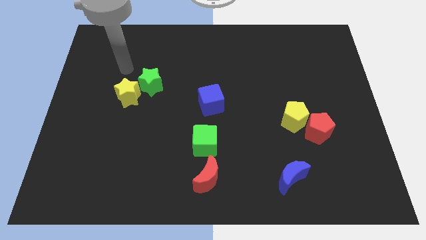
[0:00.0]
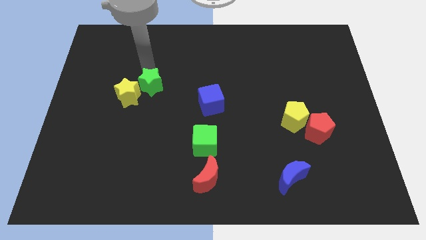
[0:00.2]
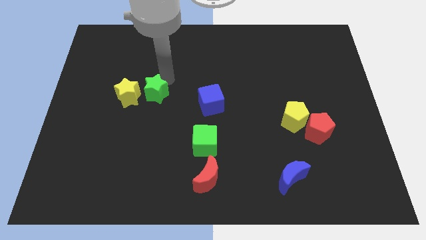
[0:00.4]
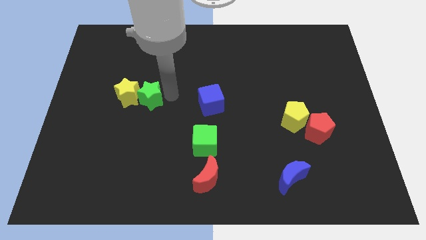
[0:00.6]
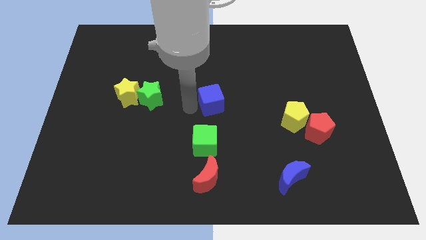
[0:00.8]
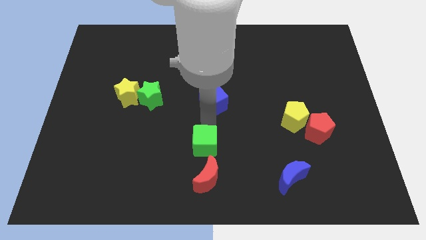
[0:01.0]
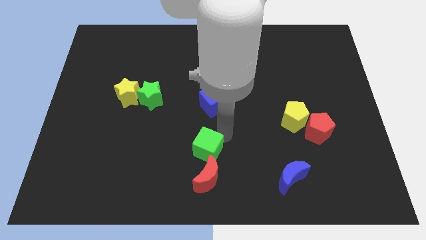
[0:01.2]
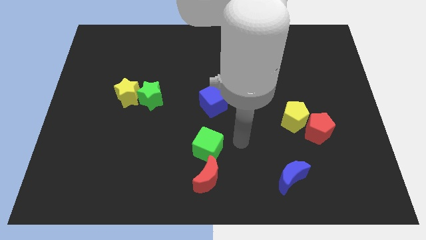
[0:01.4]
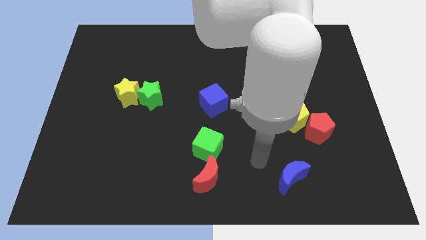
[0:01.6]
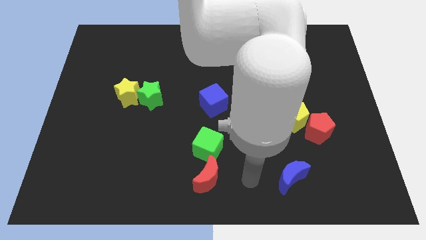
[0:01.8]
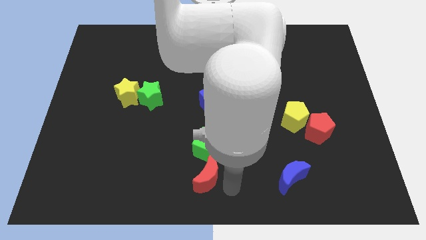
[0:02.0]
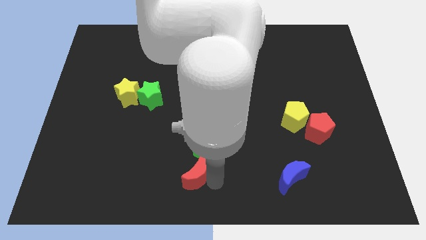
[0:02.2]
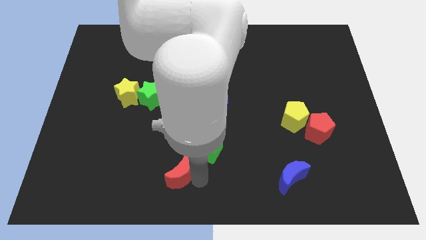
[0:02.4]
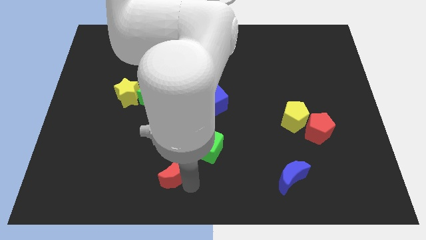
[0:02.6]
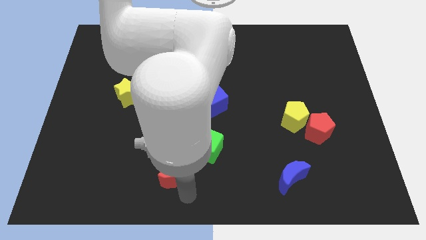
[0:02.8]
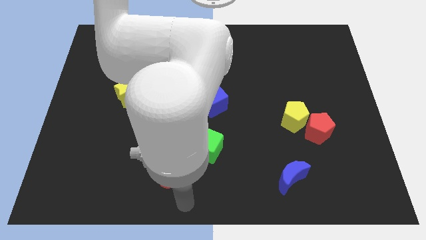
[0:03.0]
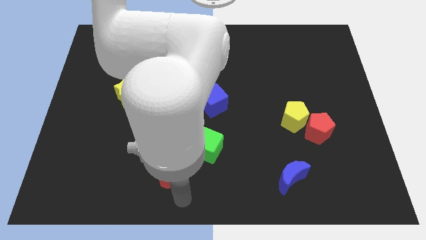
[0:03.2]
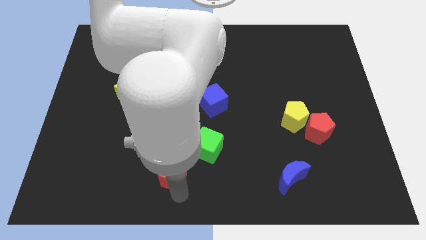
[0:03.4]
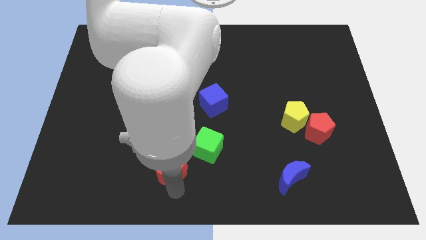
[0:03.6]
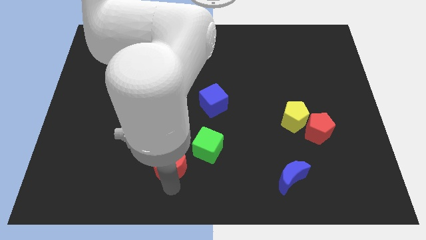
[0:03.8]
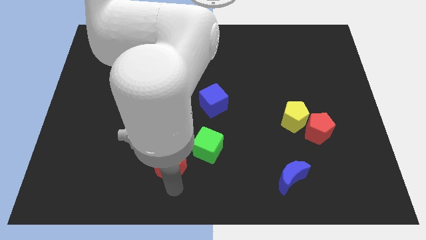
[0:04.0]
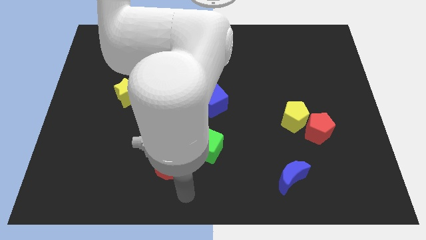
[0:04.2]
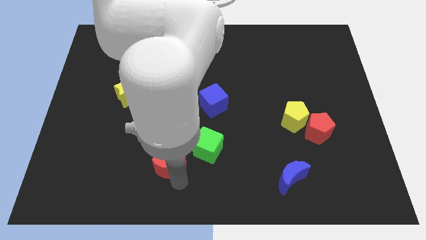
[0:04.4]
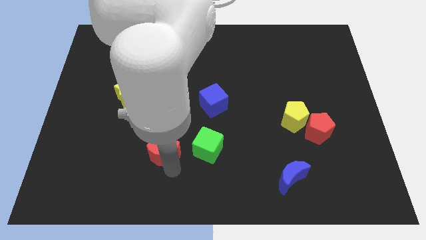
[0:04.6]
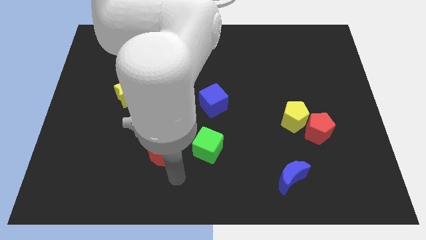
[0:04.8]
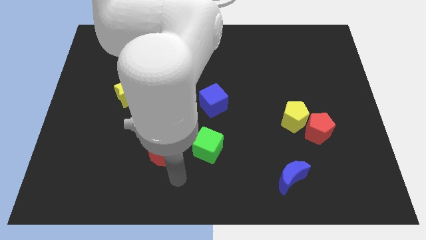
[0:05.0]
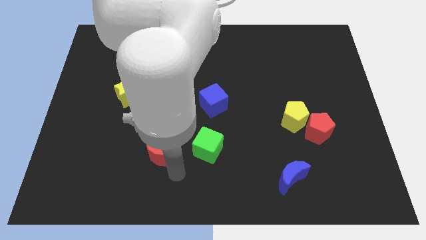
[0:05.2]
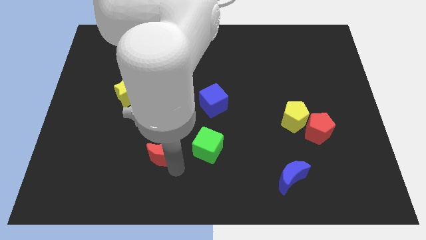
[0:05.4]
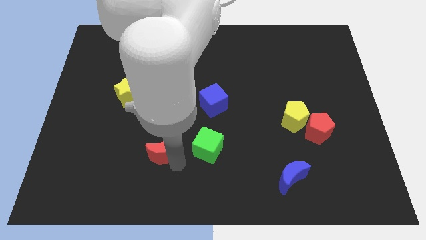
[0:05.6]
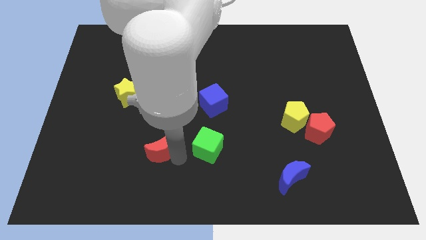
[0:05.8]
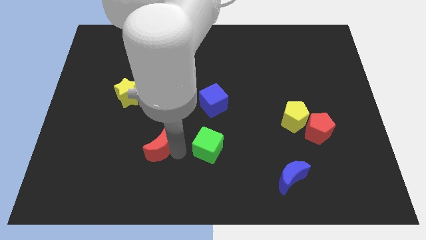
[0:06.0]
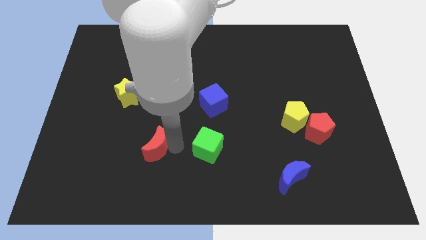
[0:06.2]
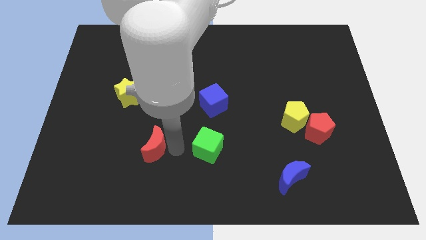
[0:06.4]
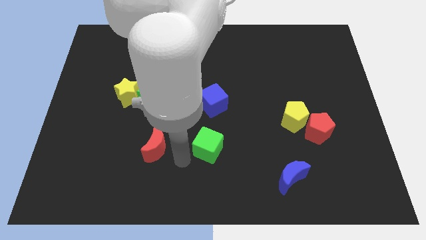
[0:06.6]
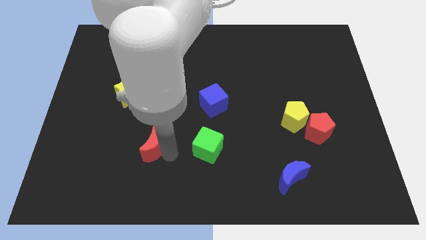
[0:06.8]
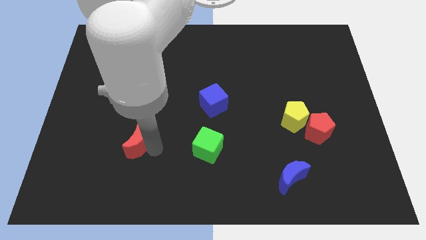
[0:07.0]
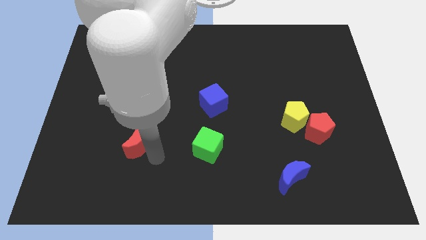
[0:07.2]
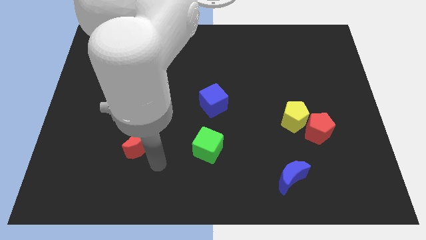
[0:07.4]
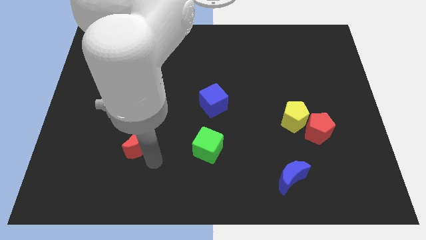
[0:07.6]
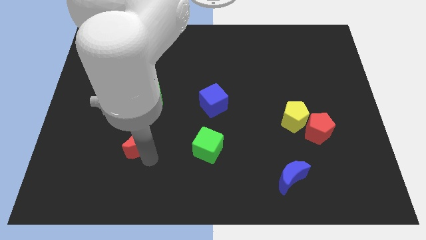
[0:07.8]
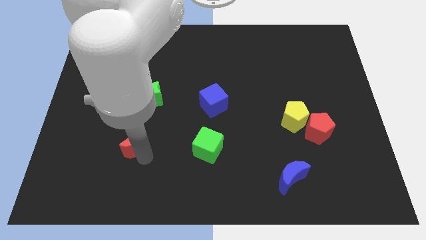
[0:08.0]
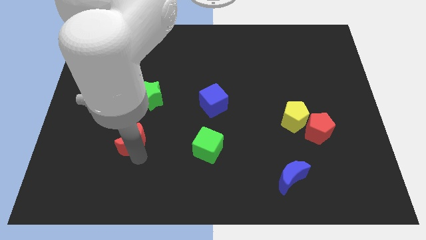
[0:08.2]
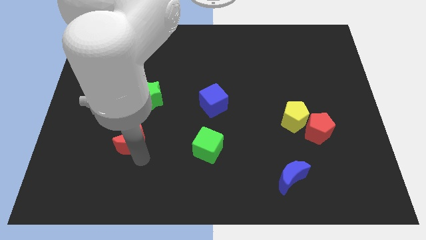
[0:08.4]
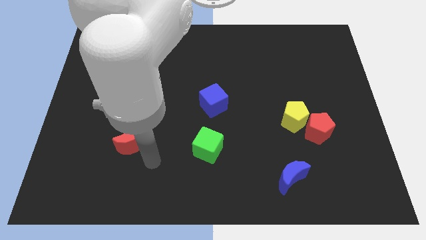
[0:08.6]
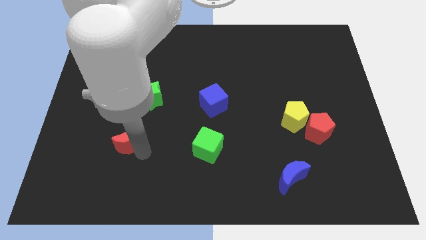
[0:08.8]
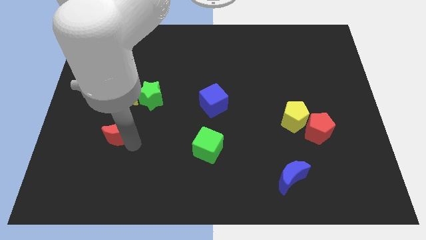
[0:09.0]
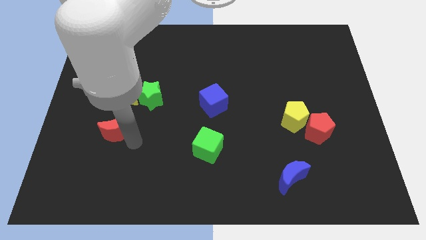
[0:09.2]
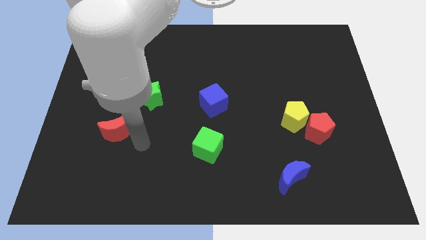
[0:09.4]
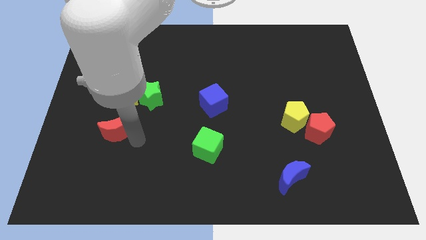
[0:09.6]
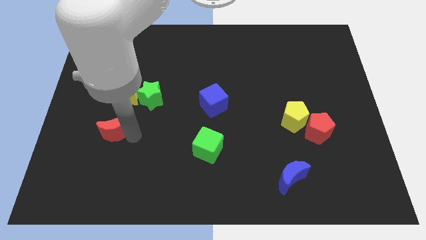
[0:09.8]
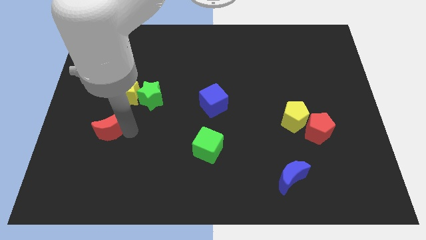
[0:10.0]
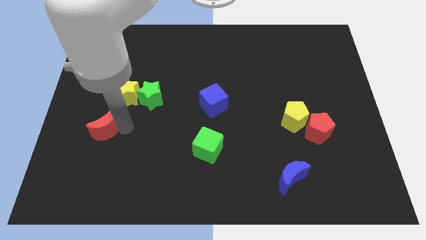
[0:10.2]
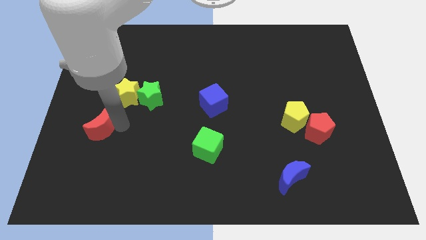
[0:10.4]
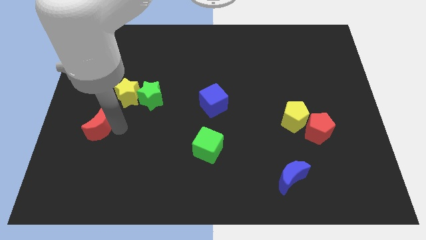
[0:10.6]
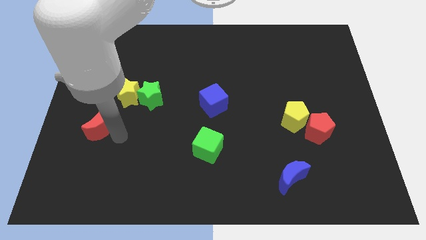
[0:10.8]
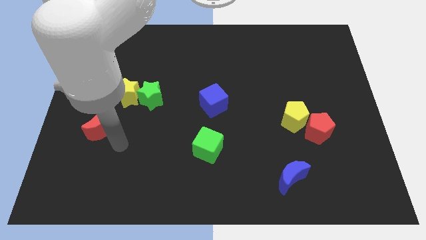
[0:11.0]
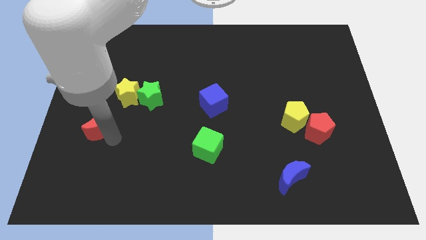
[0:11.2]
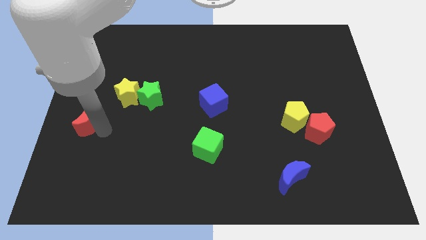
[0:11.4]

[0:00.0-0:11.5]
slide the red moon to the left side of the board

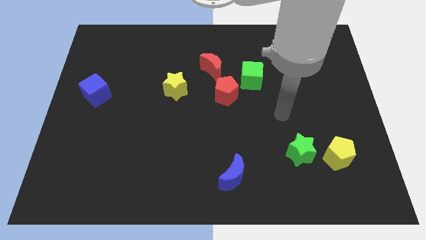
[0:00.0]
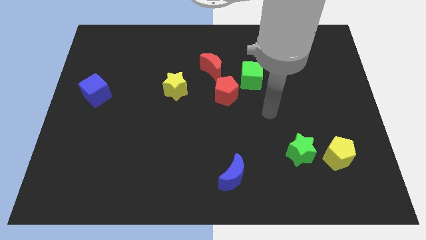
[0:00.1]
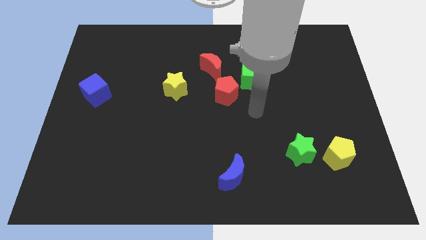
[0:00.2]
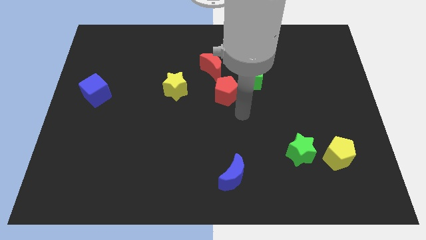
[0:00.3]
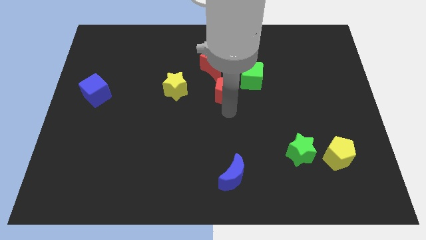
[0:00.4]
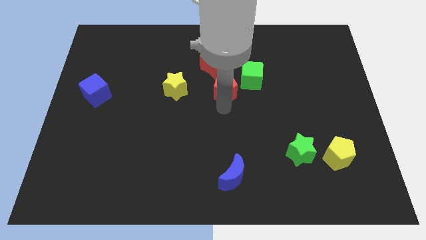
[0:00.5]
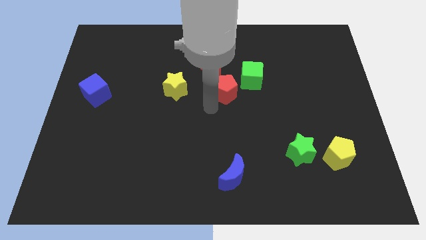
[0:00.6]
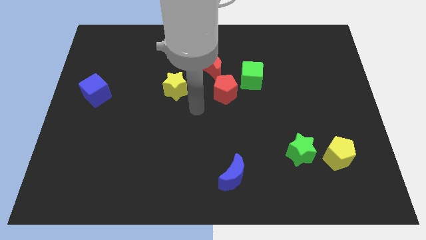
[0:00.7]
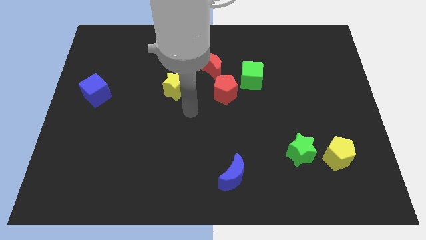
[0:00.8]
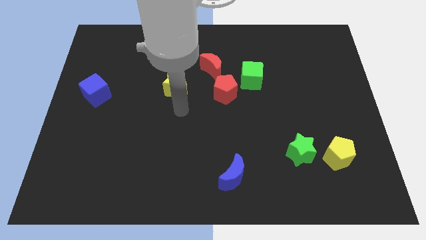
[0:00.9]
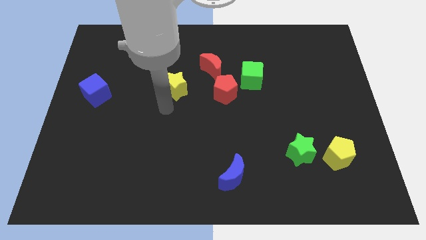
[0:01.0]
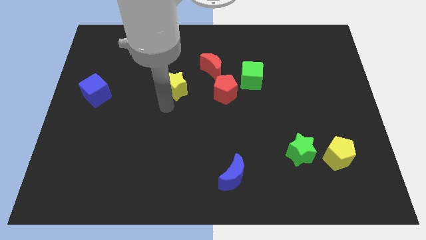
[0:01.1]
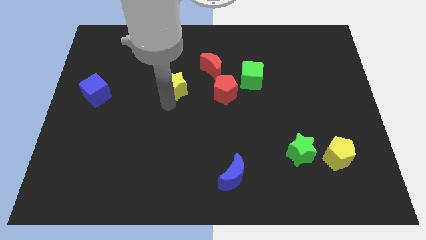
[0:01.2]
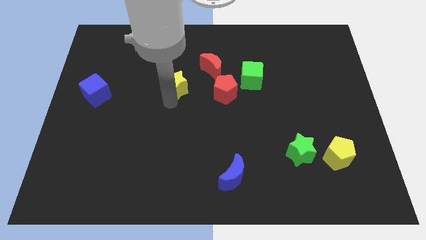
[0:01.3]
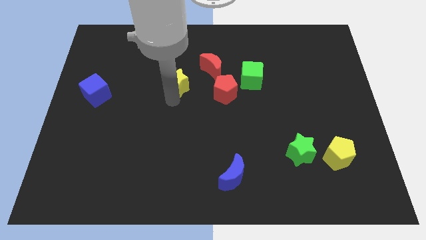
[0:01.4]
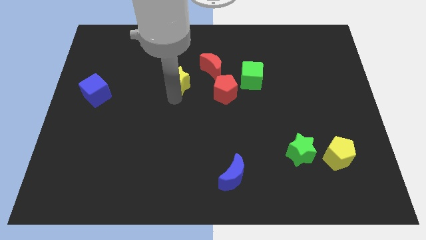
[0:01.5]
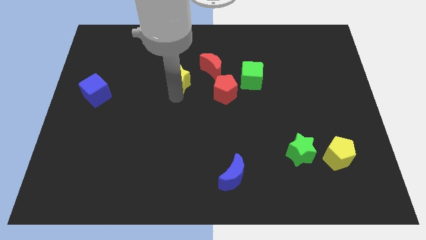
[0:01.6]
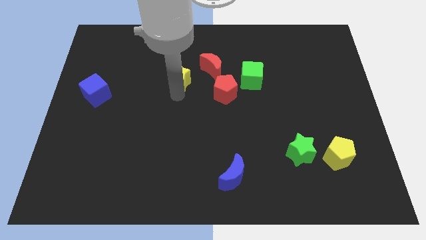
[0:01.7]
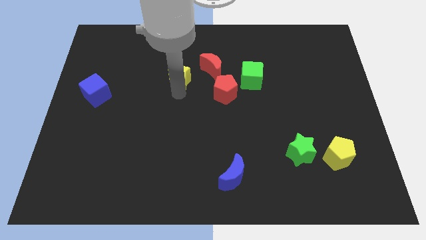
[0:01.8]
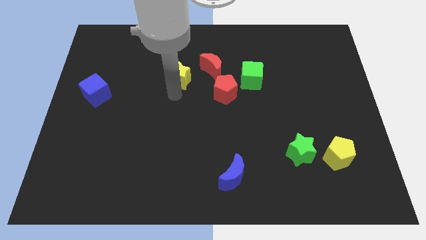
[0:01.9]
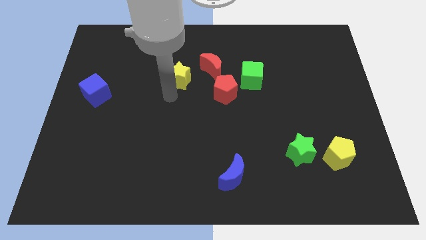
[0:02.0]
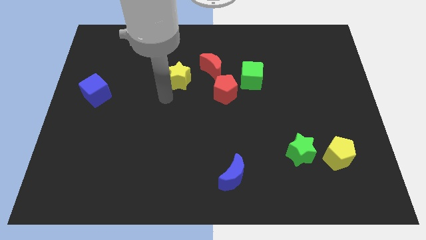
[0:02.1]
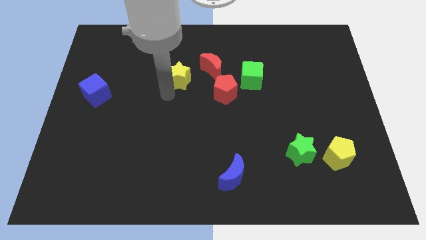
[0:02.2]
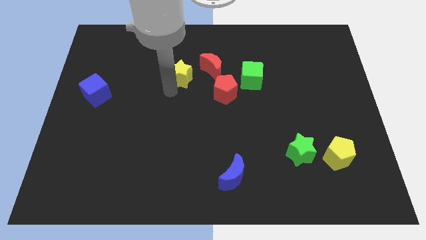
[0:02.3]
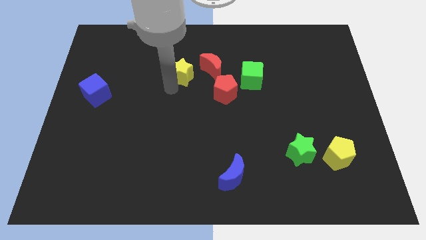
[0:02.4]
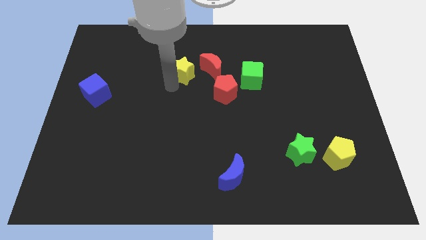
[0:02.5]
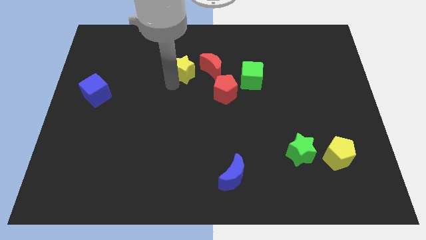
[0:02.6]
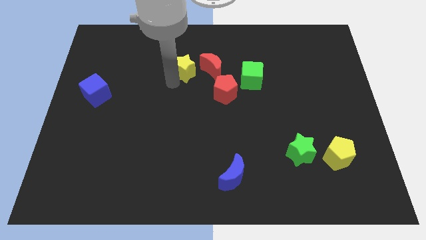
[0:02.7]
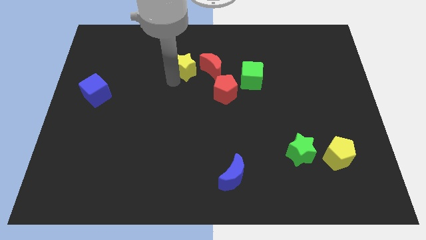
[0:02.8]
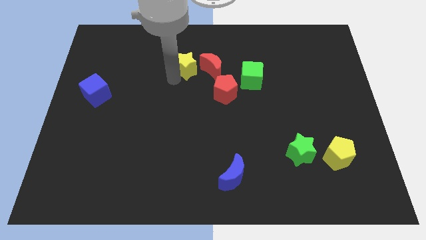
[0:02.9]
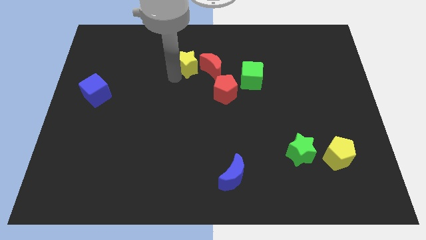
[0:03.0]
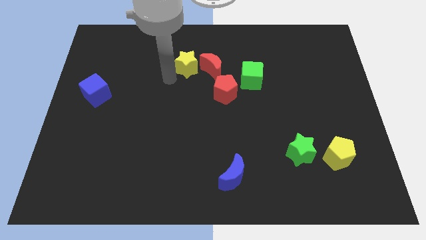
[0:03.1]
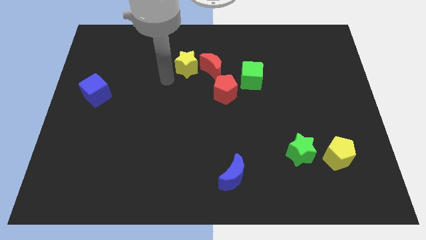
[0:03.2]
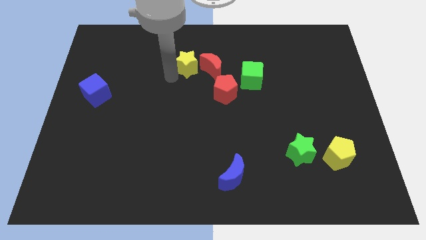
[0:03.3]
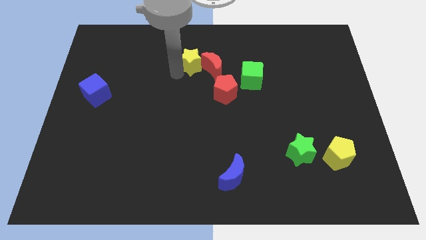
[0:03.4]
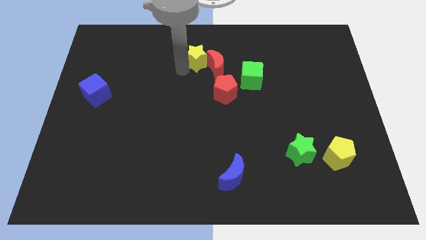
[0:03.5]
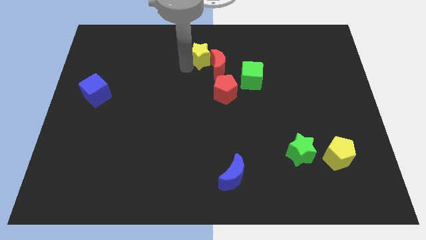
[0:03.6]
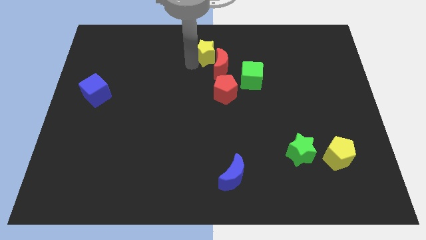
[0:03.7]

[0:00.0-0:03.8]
slide the yellow star to the top side
